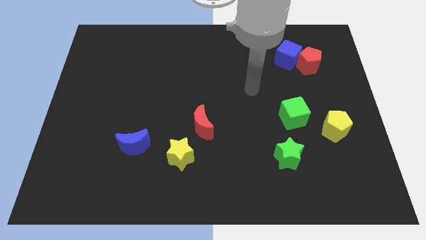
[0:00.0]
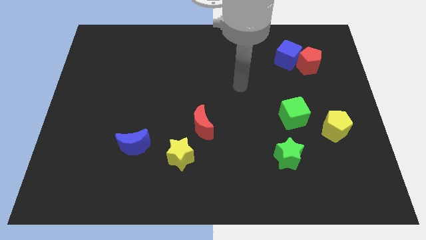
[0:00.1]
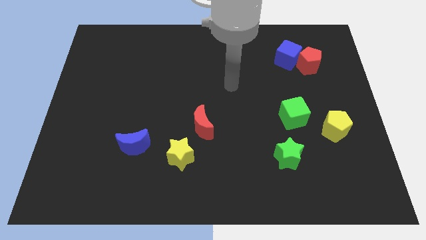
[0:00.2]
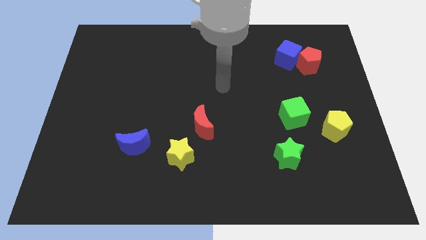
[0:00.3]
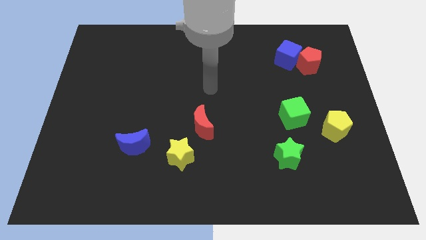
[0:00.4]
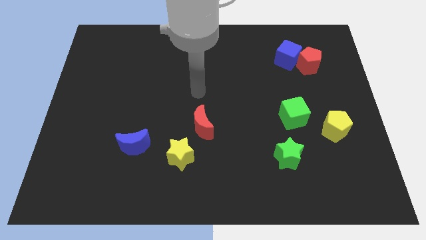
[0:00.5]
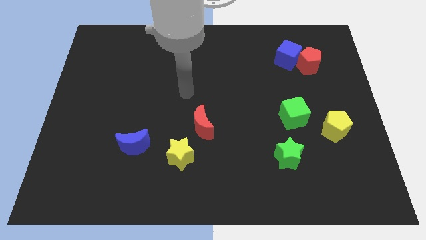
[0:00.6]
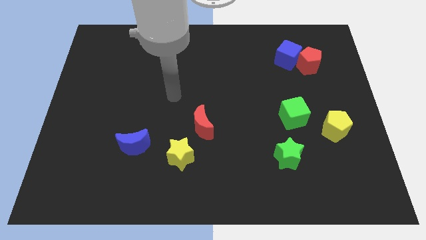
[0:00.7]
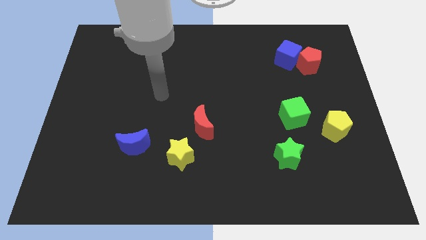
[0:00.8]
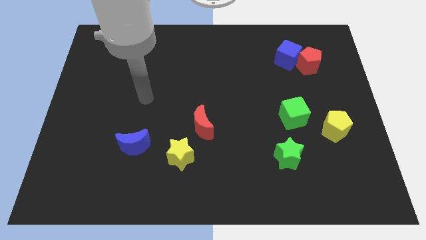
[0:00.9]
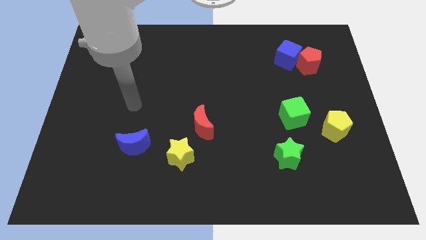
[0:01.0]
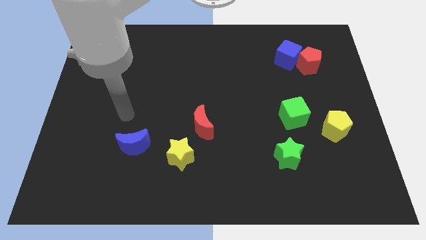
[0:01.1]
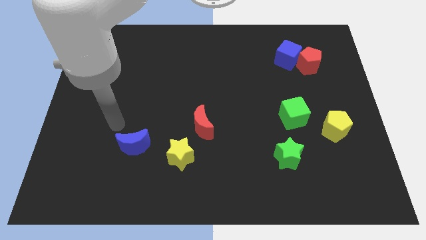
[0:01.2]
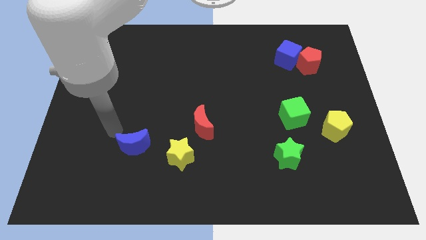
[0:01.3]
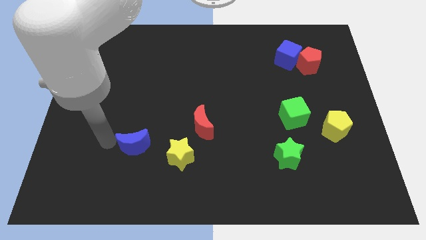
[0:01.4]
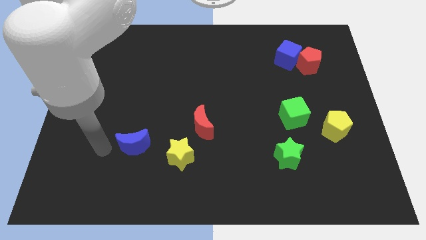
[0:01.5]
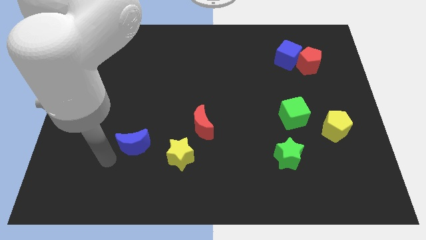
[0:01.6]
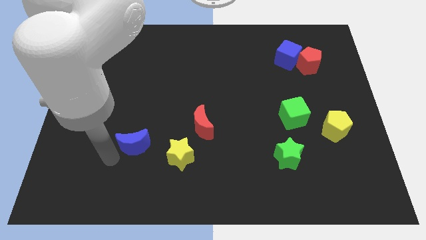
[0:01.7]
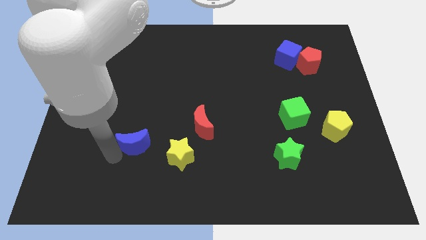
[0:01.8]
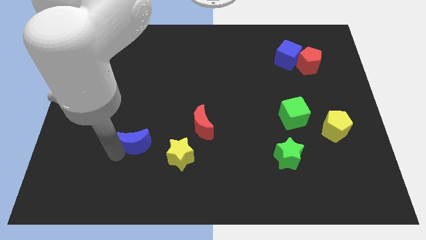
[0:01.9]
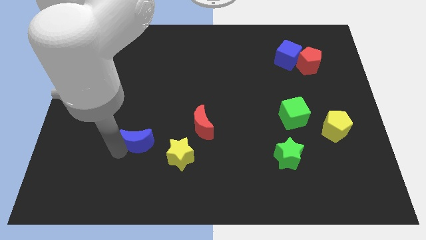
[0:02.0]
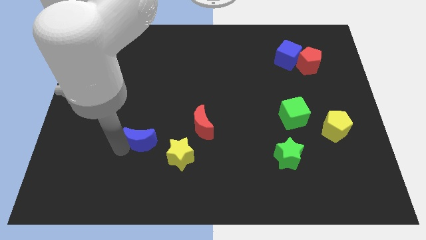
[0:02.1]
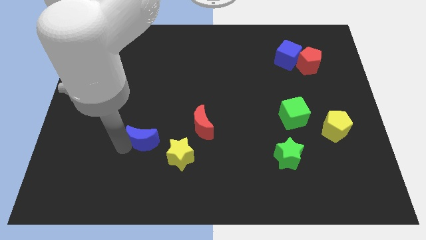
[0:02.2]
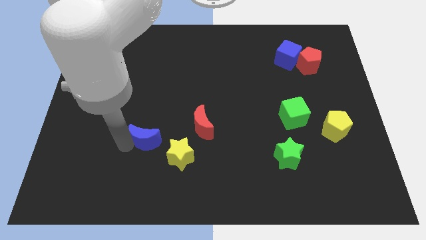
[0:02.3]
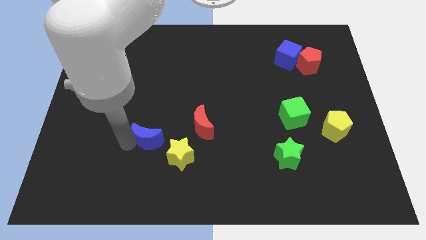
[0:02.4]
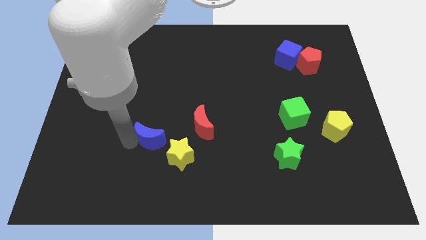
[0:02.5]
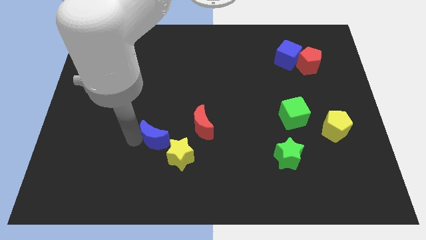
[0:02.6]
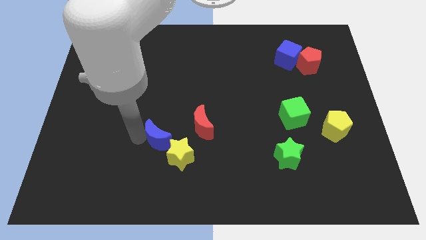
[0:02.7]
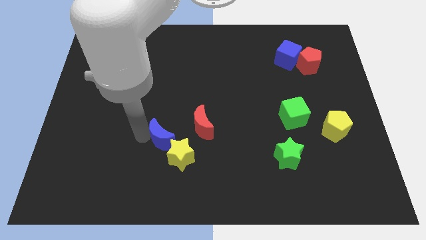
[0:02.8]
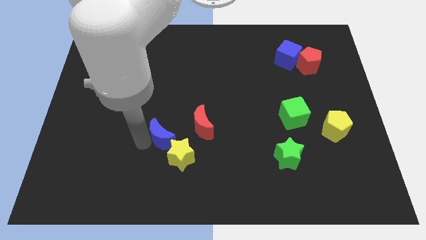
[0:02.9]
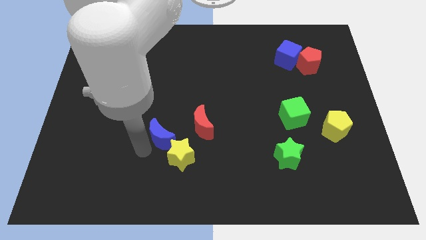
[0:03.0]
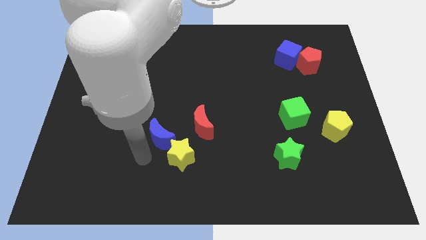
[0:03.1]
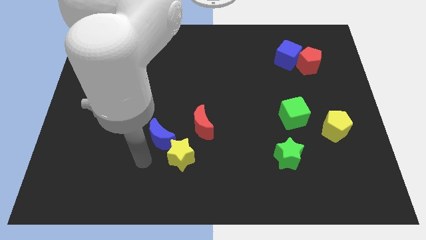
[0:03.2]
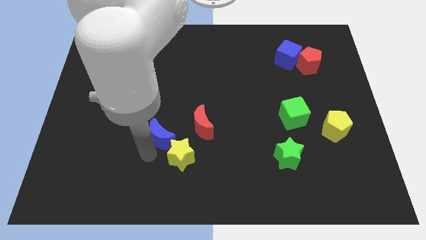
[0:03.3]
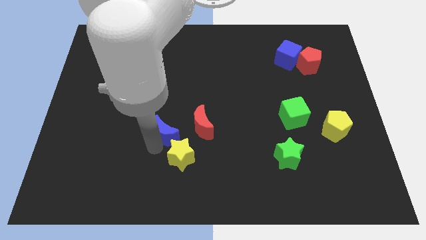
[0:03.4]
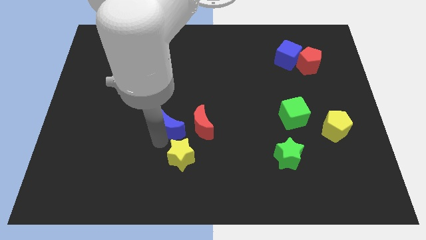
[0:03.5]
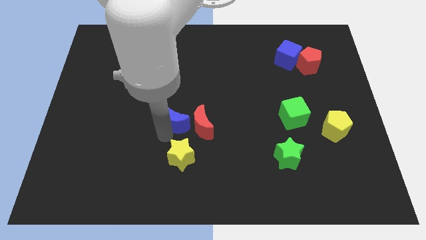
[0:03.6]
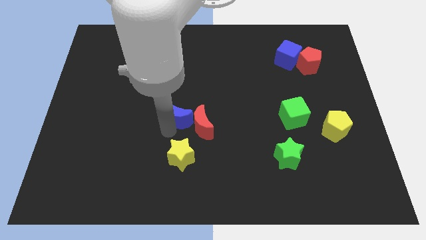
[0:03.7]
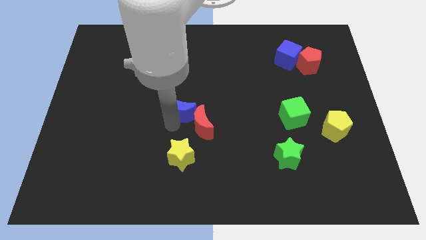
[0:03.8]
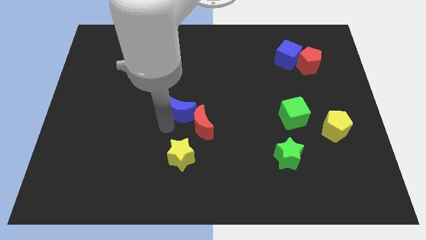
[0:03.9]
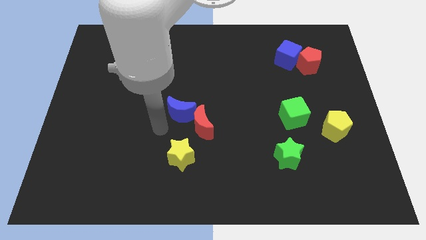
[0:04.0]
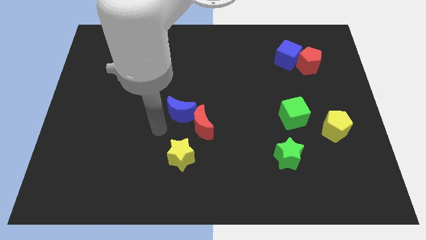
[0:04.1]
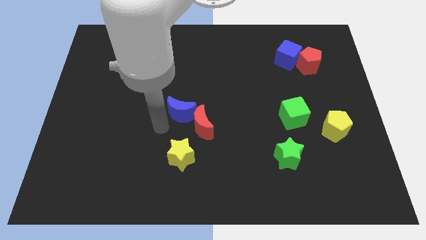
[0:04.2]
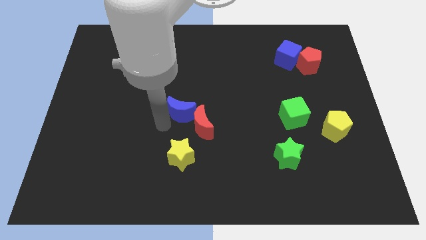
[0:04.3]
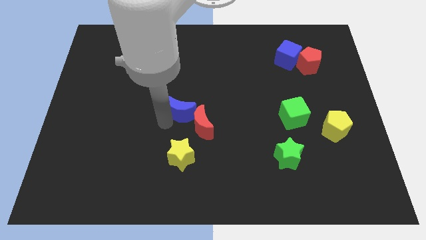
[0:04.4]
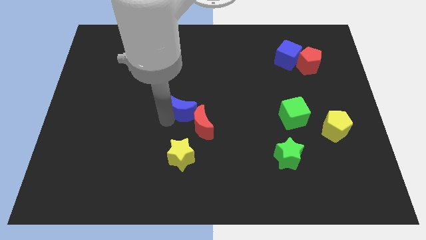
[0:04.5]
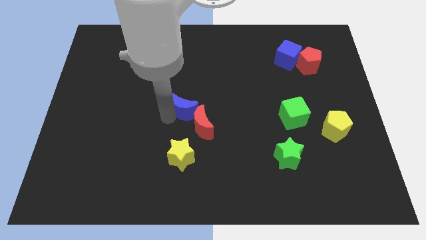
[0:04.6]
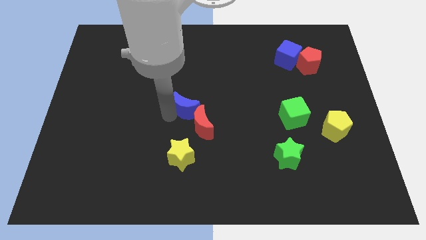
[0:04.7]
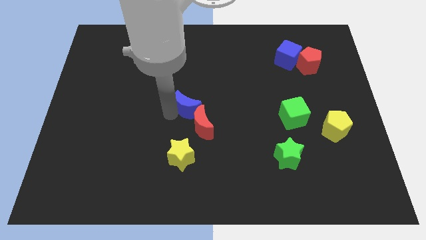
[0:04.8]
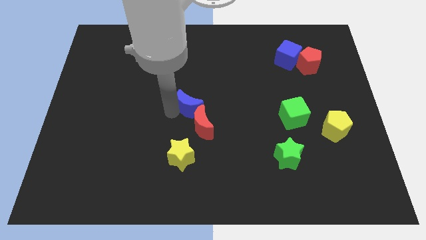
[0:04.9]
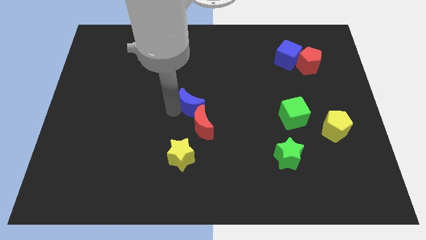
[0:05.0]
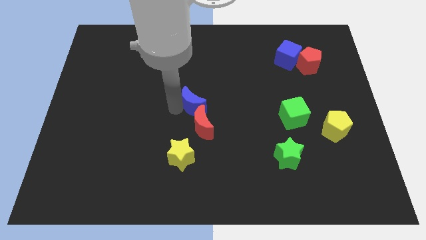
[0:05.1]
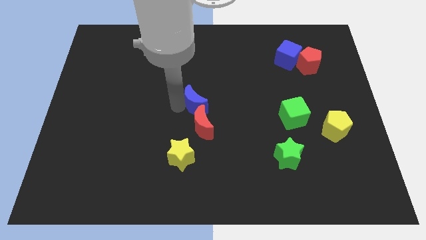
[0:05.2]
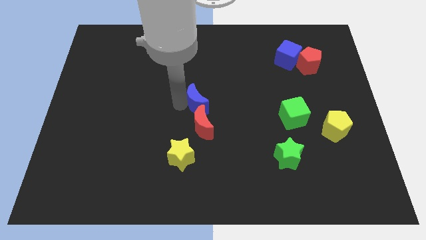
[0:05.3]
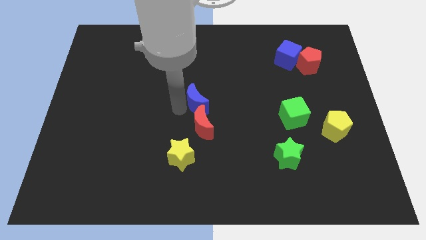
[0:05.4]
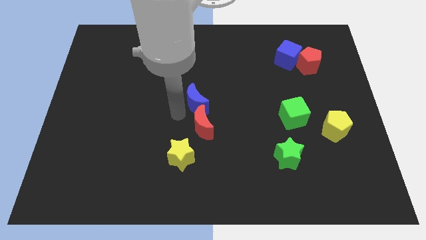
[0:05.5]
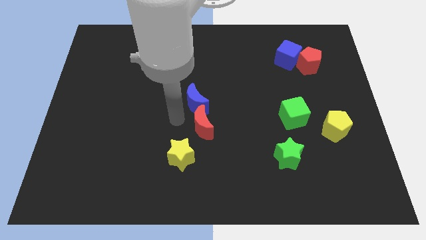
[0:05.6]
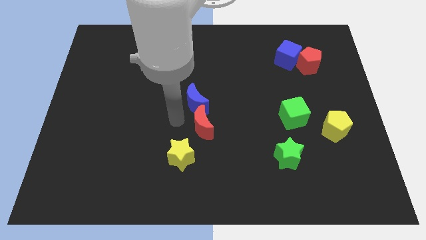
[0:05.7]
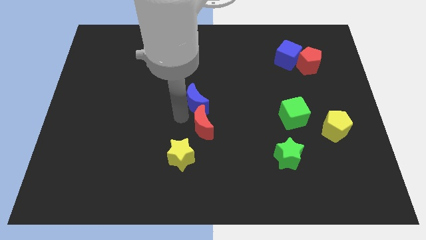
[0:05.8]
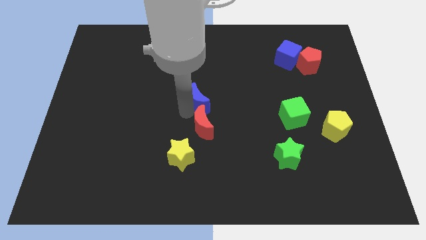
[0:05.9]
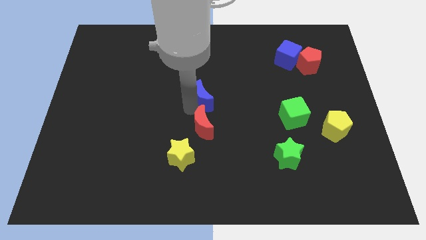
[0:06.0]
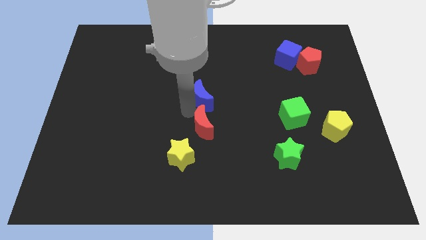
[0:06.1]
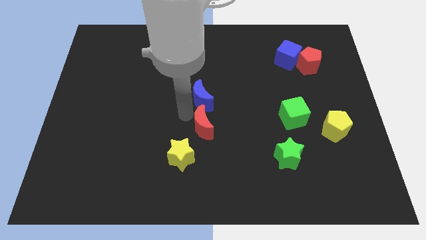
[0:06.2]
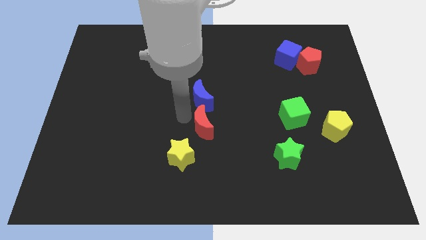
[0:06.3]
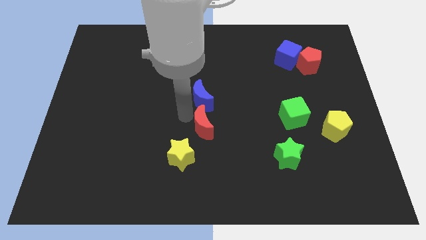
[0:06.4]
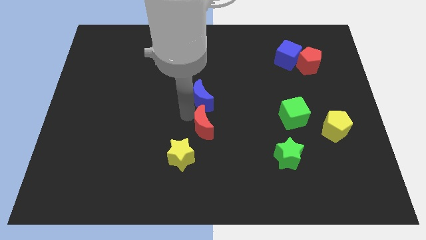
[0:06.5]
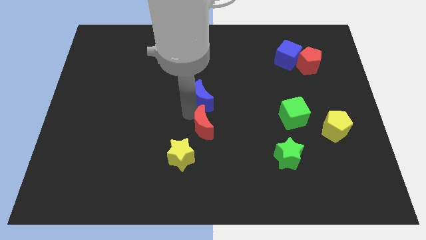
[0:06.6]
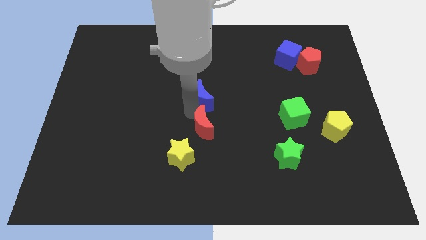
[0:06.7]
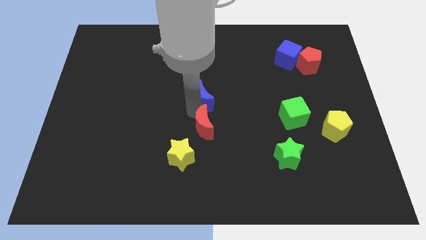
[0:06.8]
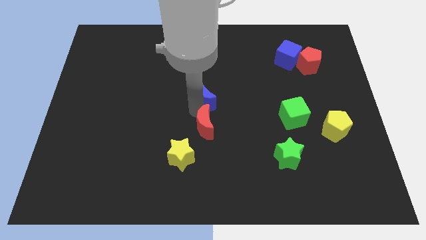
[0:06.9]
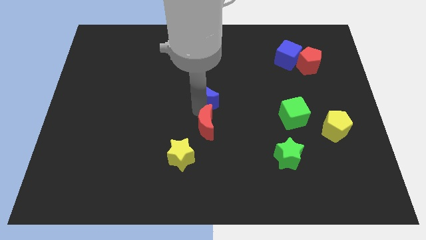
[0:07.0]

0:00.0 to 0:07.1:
move the blue moon diagonally up and right

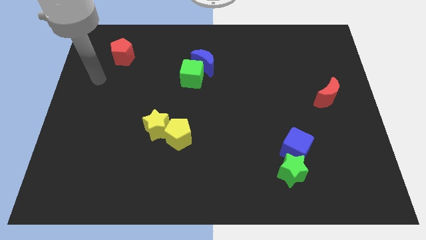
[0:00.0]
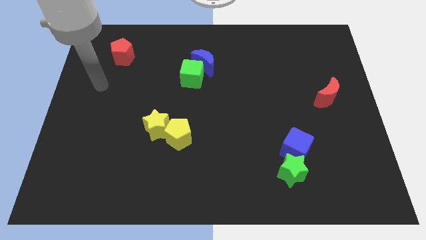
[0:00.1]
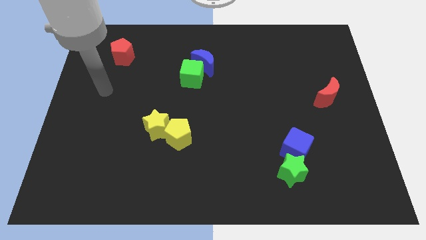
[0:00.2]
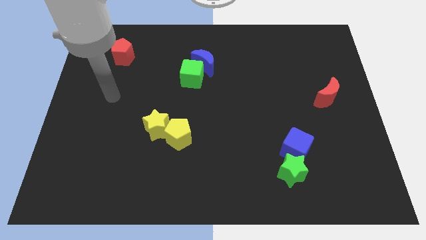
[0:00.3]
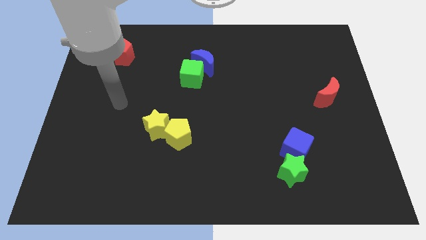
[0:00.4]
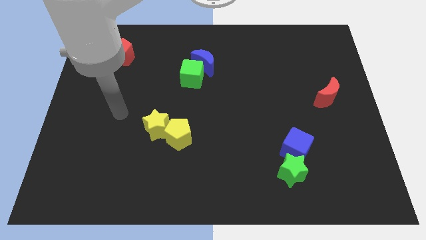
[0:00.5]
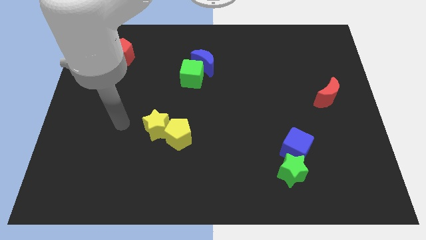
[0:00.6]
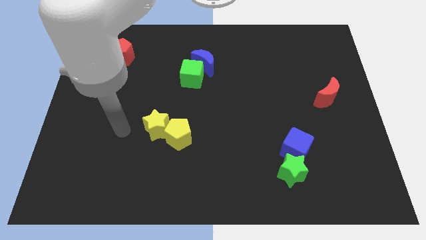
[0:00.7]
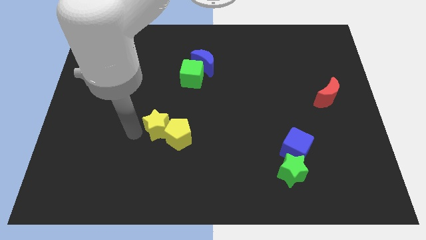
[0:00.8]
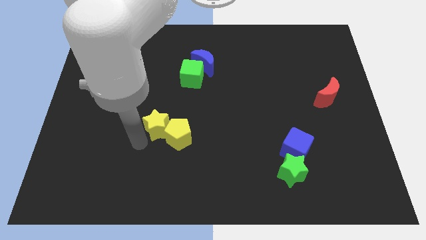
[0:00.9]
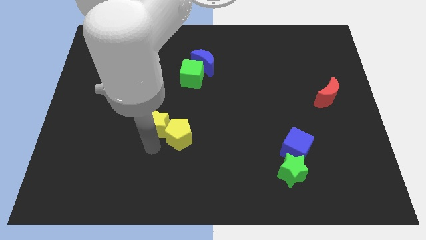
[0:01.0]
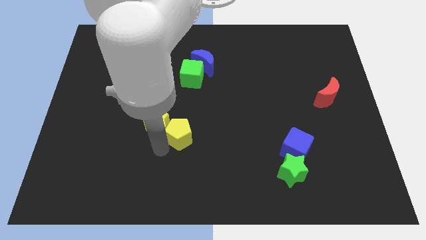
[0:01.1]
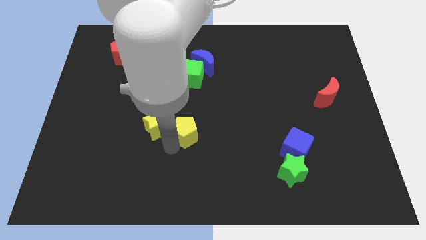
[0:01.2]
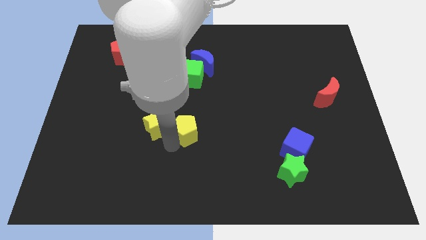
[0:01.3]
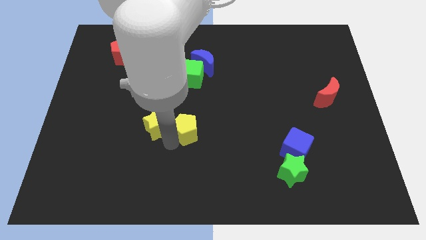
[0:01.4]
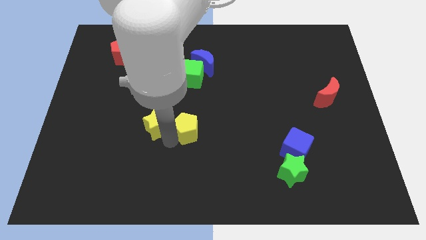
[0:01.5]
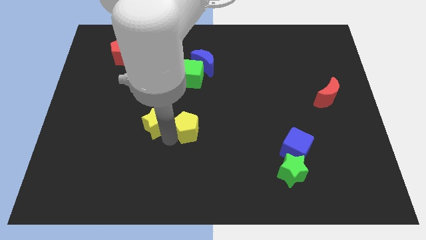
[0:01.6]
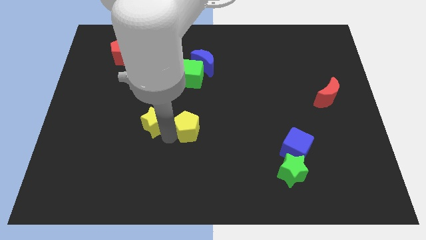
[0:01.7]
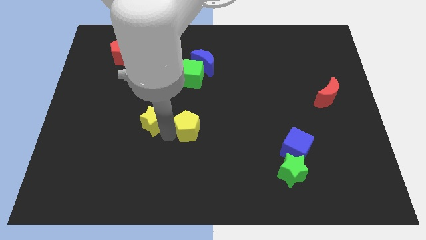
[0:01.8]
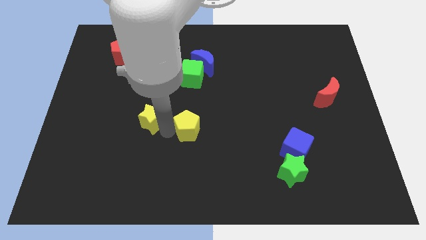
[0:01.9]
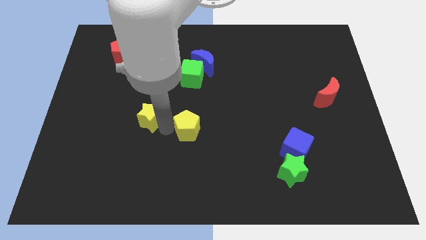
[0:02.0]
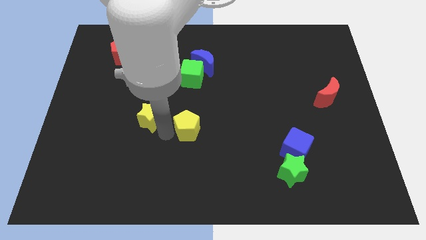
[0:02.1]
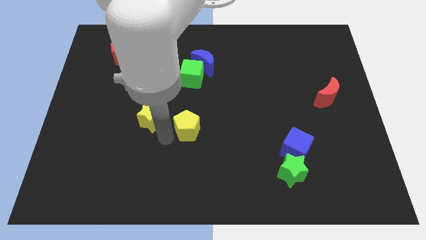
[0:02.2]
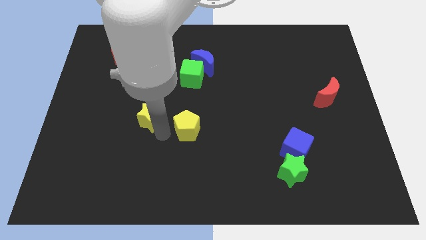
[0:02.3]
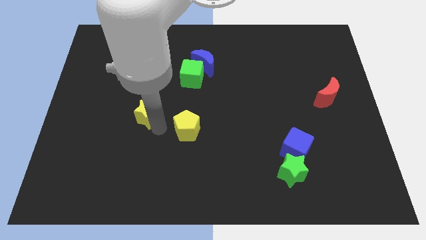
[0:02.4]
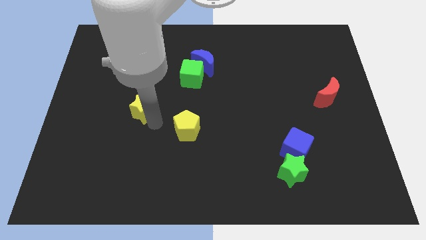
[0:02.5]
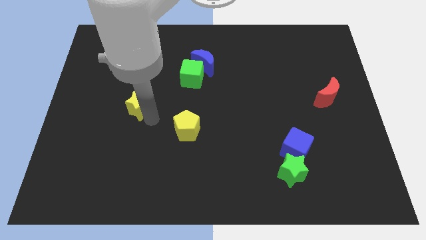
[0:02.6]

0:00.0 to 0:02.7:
slightly slide the yellow star upwards and then left
